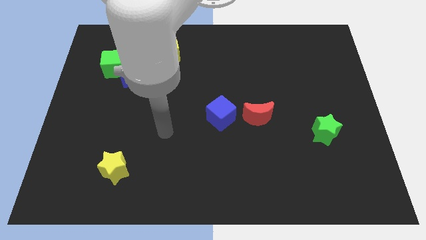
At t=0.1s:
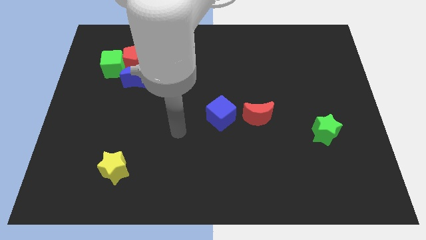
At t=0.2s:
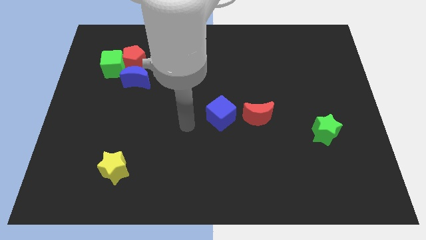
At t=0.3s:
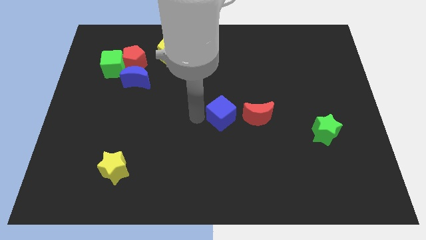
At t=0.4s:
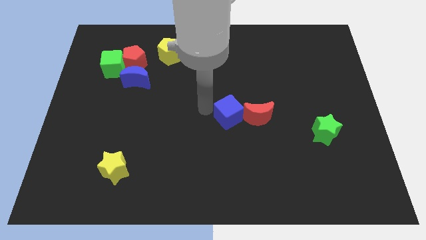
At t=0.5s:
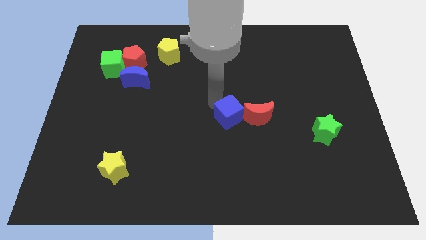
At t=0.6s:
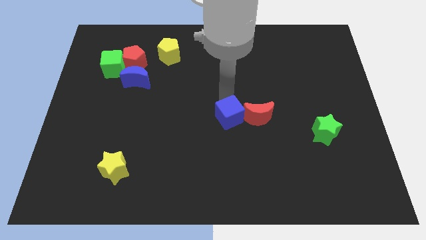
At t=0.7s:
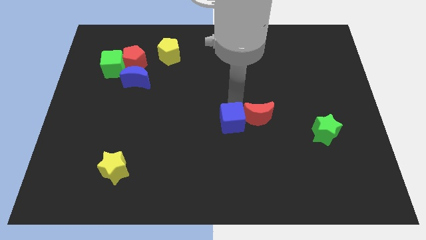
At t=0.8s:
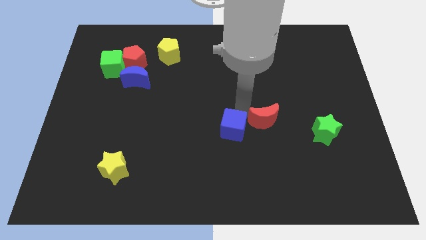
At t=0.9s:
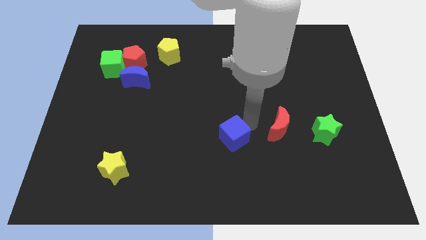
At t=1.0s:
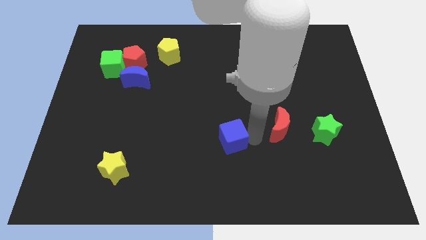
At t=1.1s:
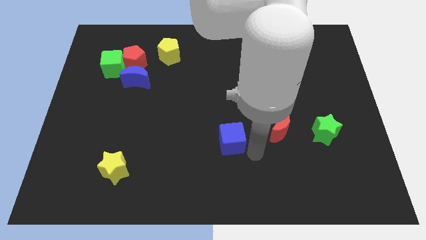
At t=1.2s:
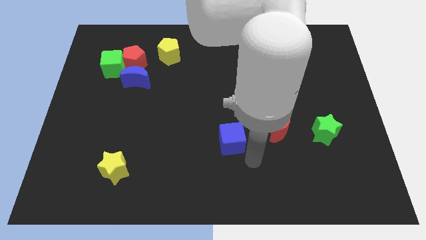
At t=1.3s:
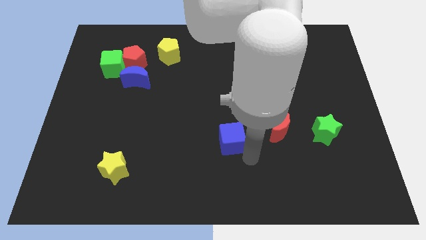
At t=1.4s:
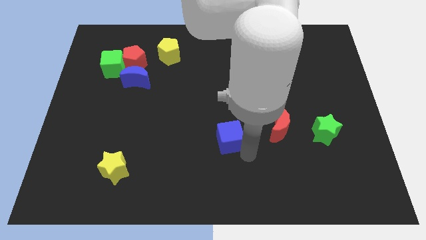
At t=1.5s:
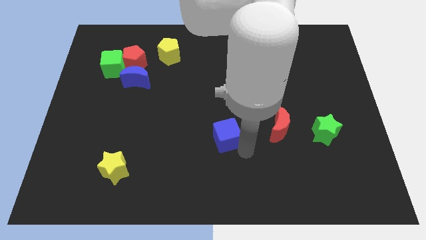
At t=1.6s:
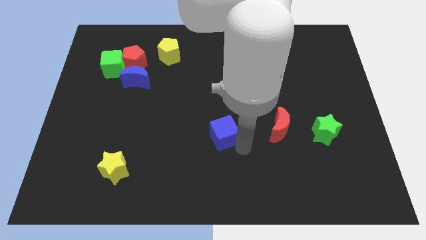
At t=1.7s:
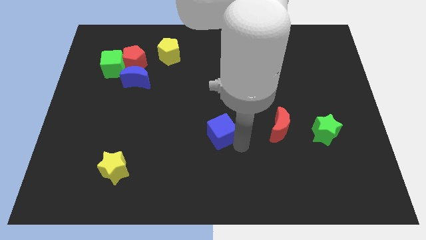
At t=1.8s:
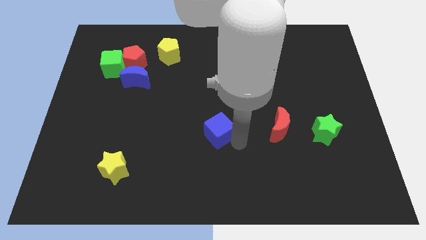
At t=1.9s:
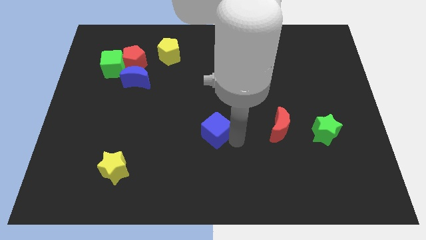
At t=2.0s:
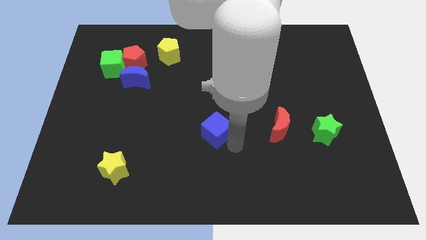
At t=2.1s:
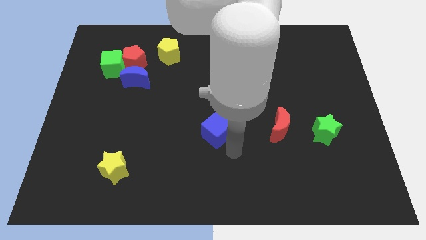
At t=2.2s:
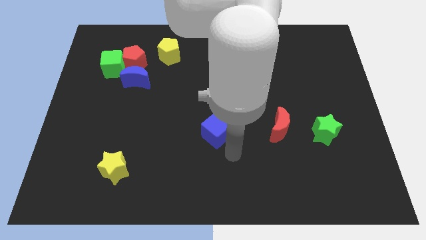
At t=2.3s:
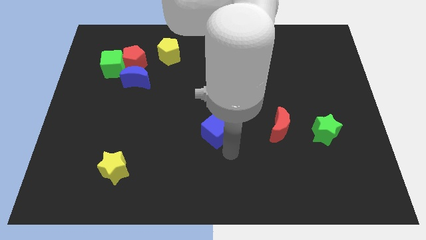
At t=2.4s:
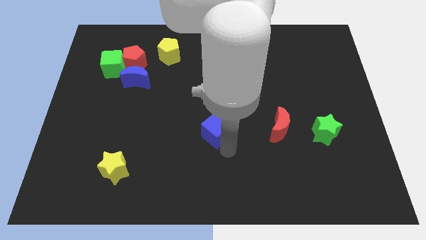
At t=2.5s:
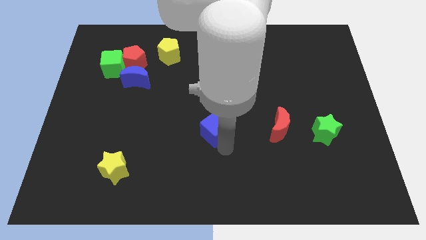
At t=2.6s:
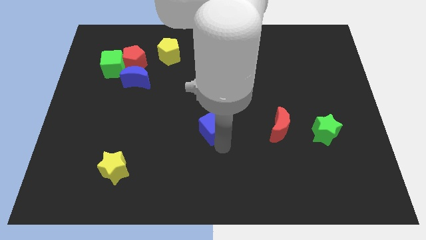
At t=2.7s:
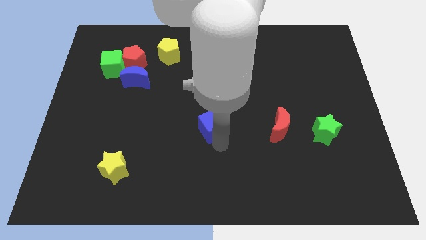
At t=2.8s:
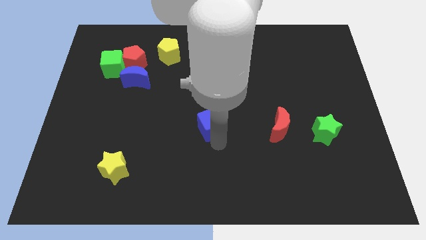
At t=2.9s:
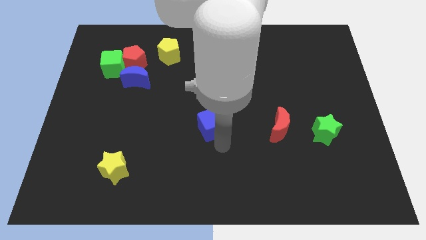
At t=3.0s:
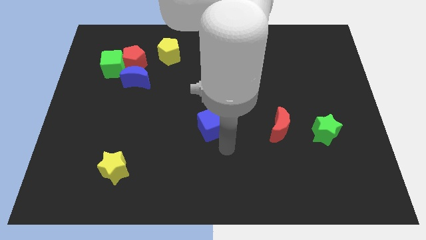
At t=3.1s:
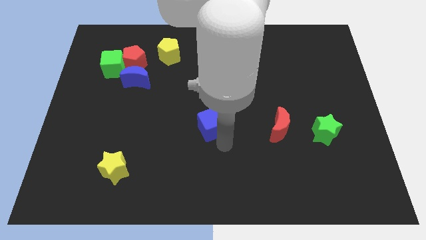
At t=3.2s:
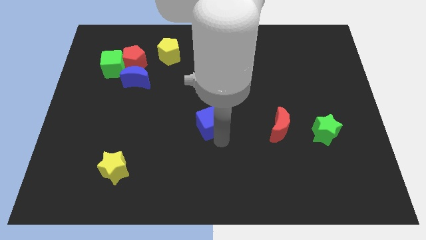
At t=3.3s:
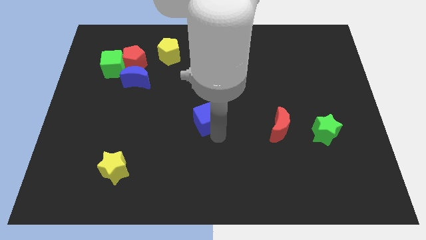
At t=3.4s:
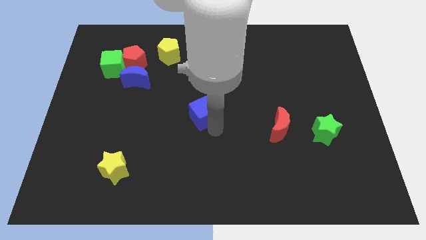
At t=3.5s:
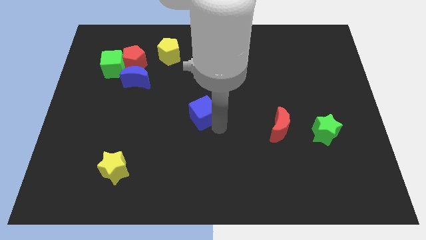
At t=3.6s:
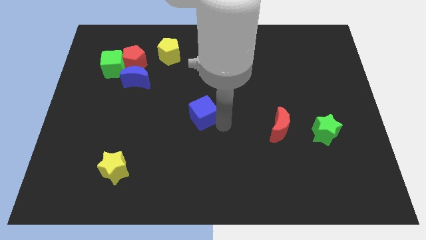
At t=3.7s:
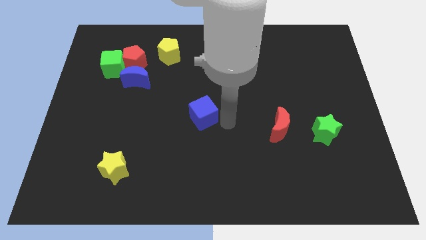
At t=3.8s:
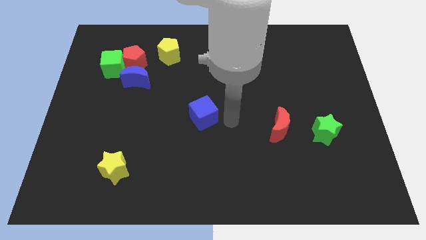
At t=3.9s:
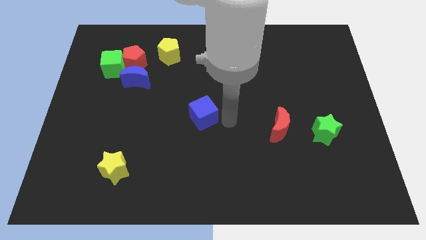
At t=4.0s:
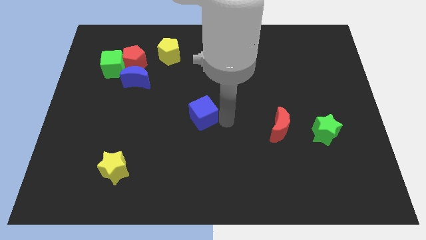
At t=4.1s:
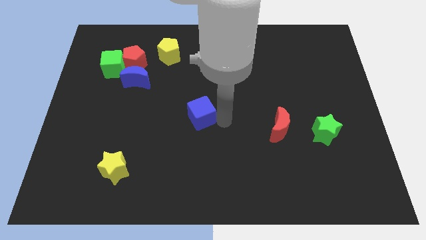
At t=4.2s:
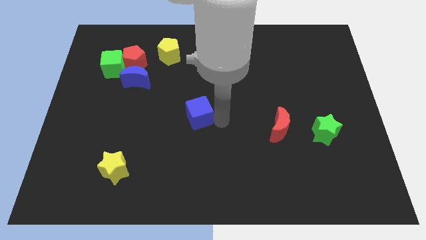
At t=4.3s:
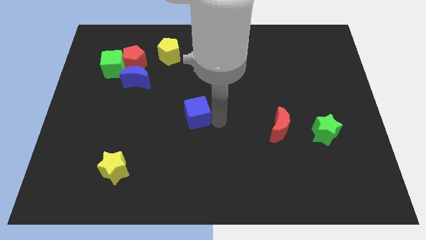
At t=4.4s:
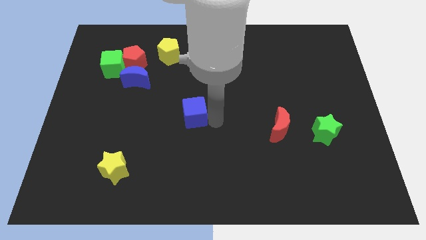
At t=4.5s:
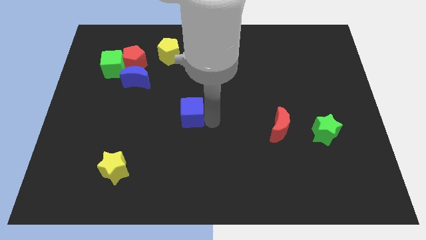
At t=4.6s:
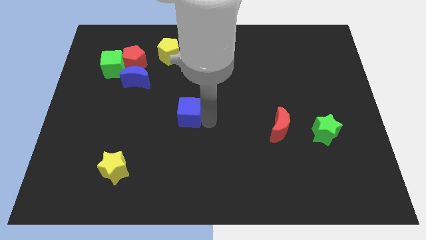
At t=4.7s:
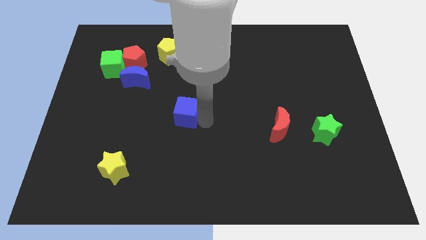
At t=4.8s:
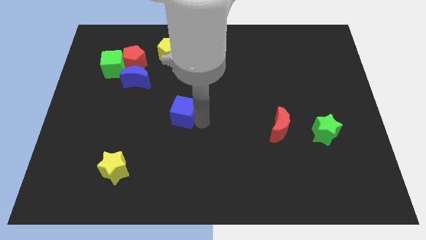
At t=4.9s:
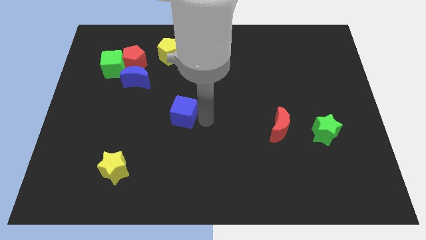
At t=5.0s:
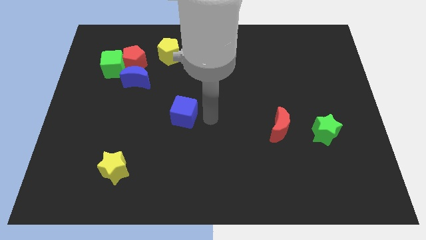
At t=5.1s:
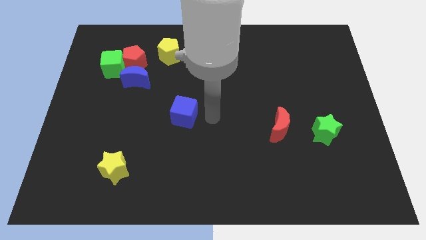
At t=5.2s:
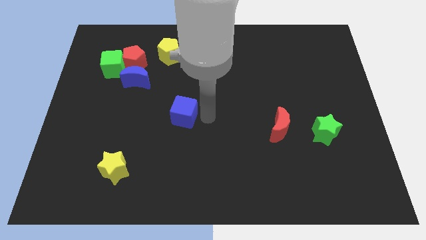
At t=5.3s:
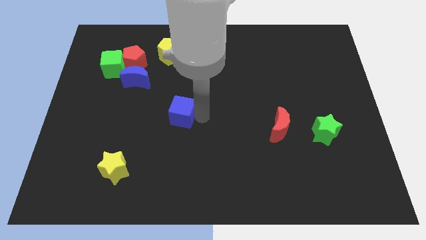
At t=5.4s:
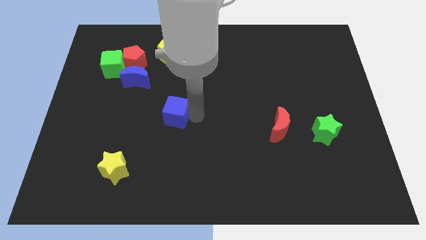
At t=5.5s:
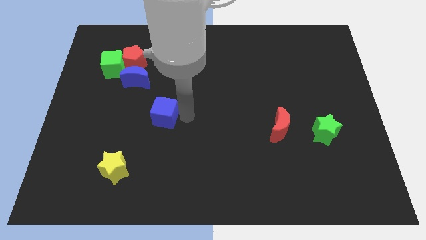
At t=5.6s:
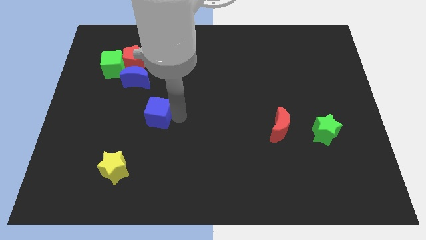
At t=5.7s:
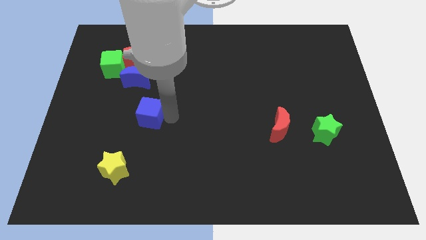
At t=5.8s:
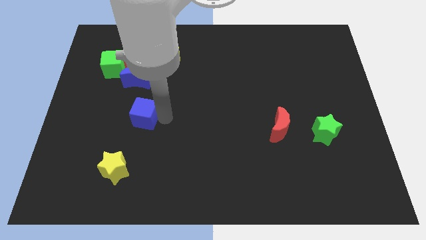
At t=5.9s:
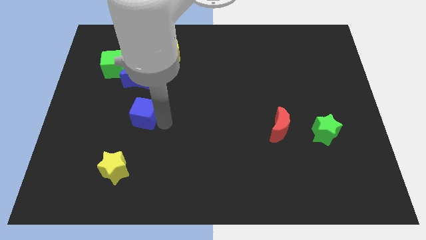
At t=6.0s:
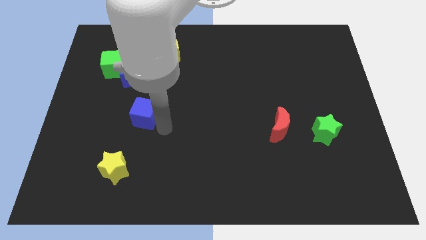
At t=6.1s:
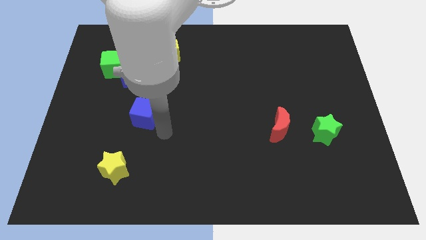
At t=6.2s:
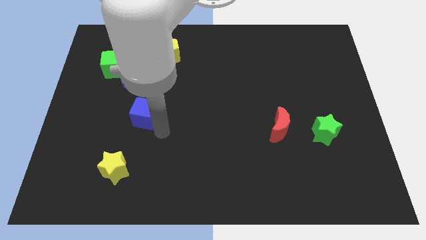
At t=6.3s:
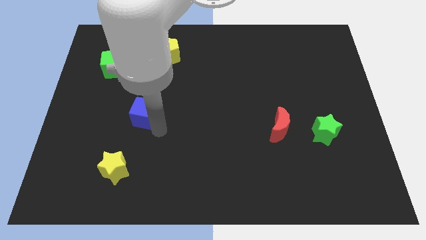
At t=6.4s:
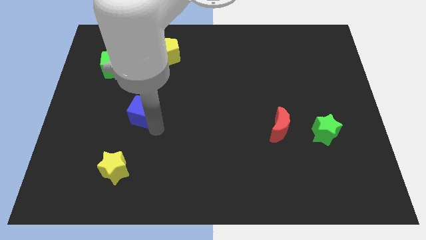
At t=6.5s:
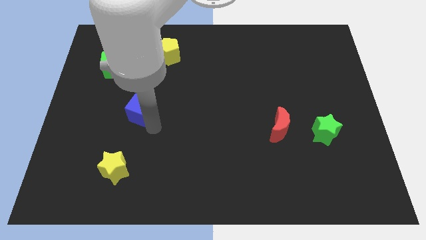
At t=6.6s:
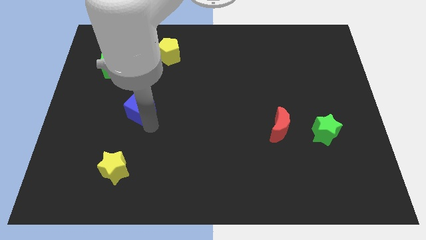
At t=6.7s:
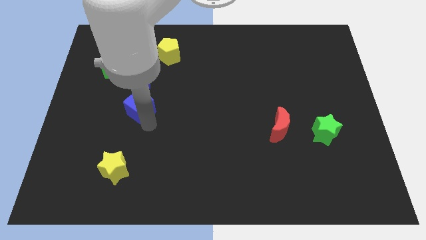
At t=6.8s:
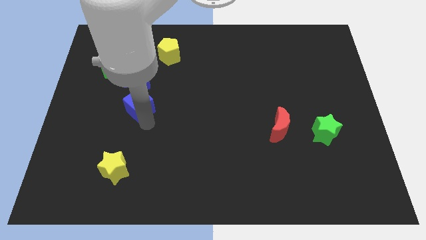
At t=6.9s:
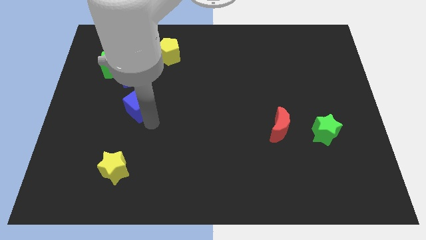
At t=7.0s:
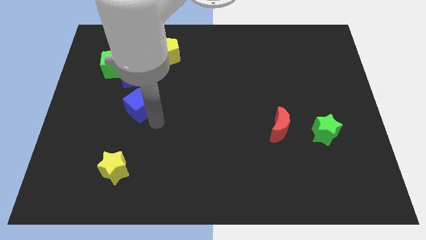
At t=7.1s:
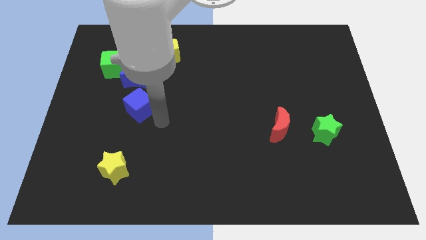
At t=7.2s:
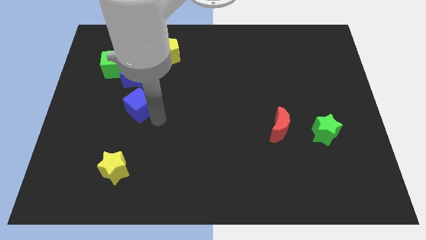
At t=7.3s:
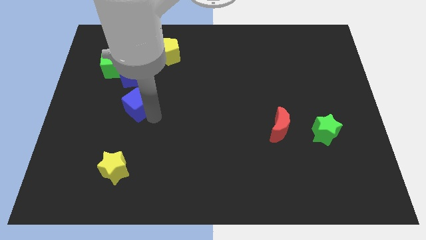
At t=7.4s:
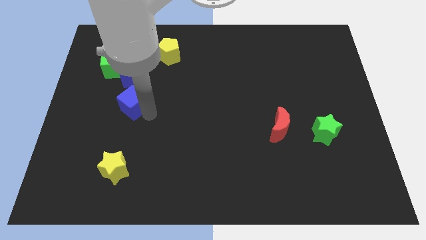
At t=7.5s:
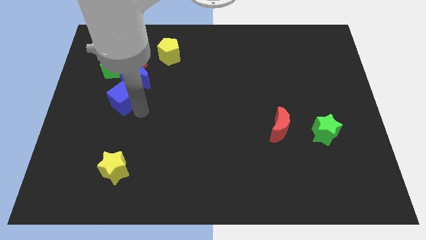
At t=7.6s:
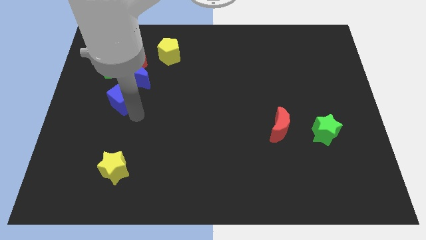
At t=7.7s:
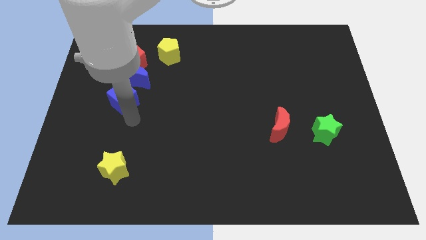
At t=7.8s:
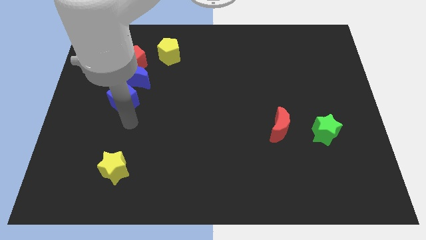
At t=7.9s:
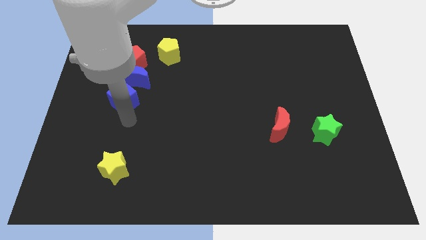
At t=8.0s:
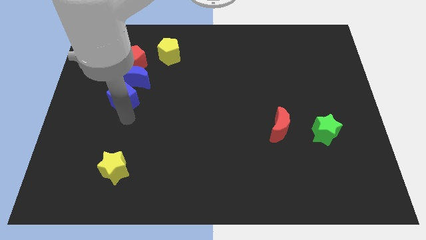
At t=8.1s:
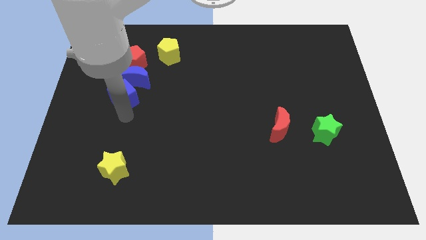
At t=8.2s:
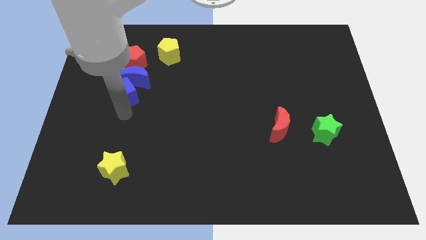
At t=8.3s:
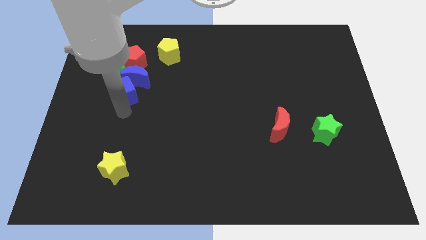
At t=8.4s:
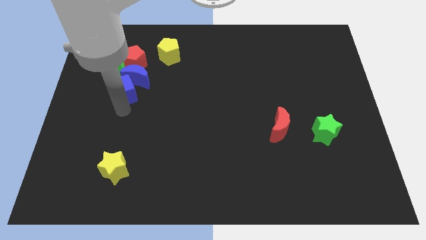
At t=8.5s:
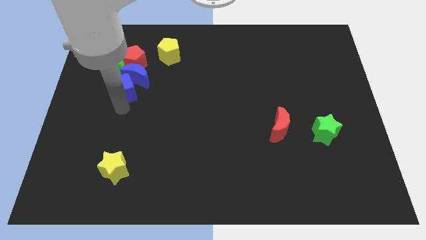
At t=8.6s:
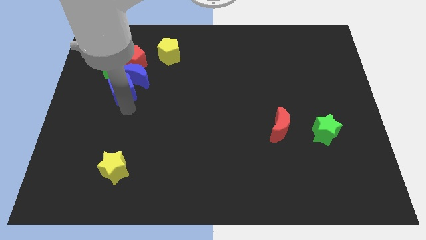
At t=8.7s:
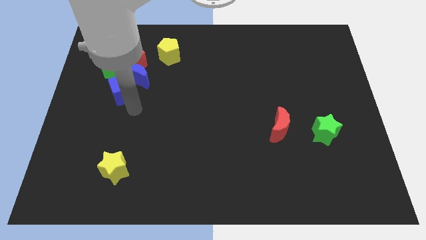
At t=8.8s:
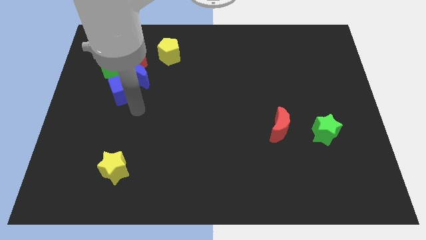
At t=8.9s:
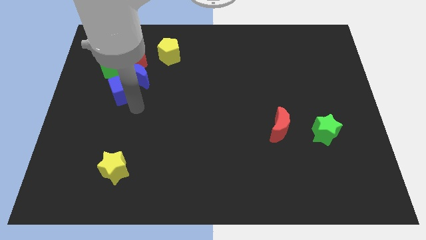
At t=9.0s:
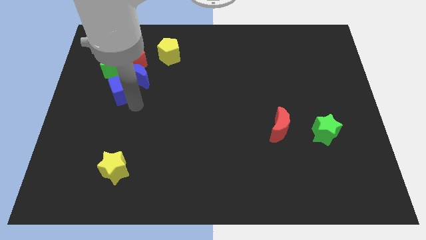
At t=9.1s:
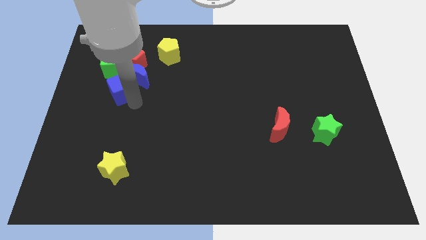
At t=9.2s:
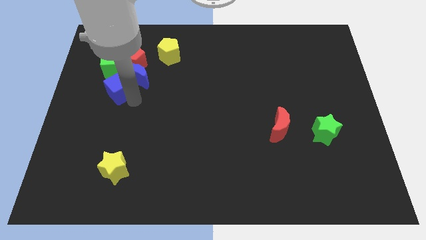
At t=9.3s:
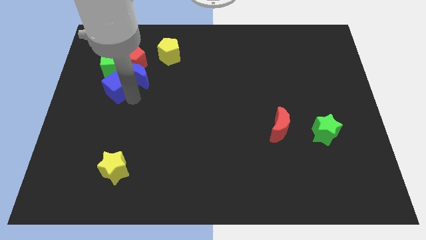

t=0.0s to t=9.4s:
move the blue cube to the bottom left side of the red pentagon
